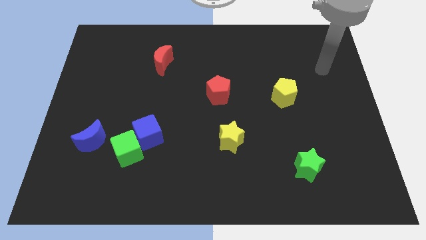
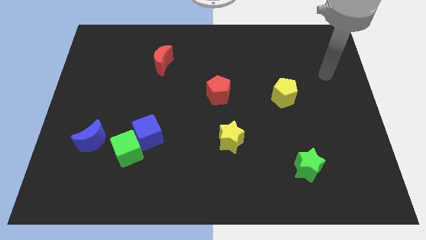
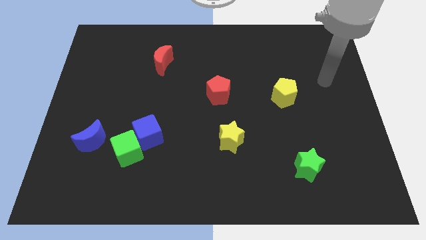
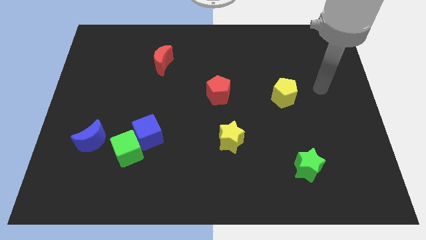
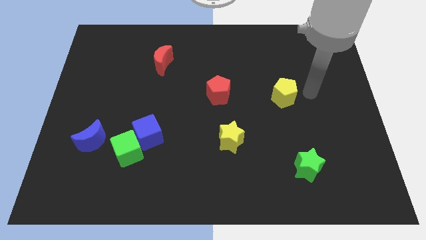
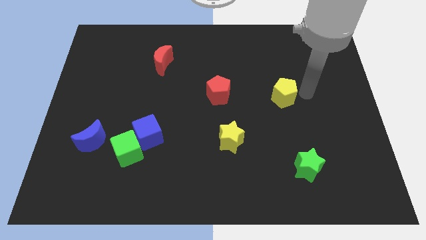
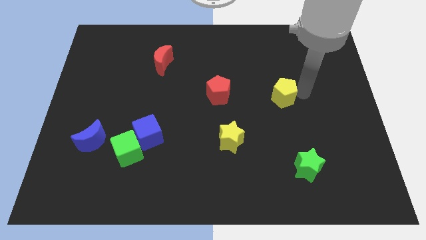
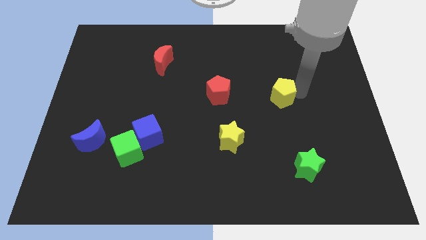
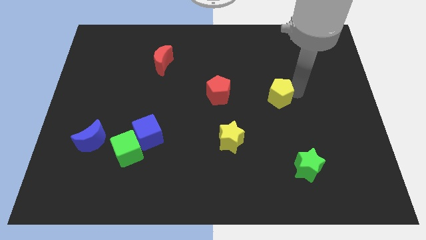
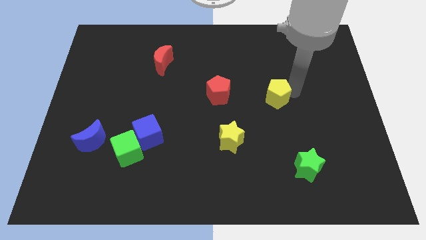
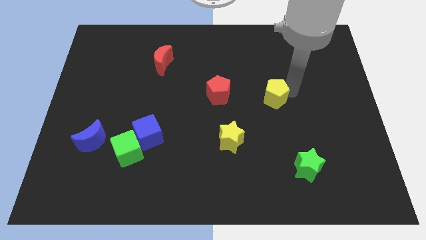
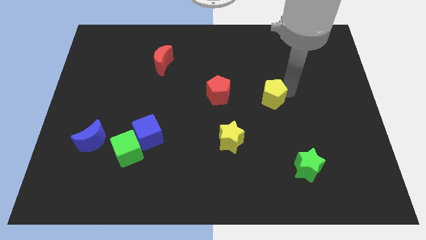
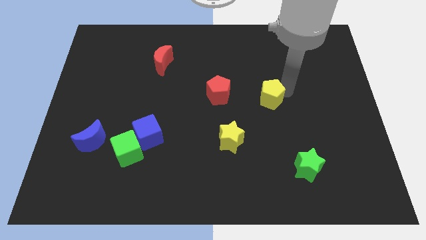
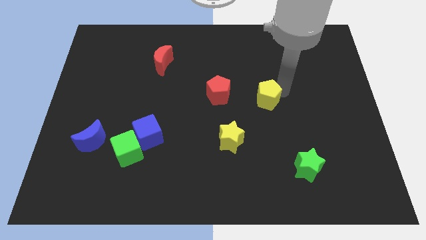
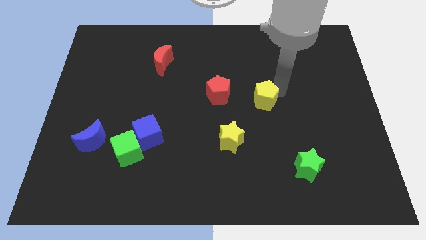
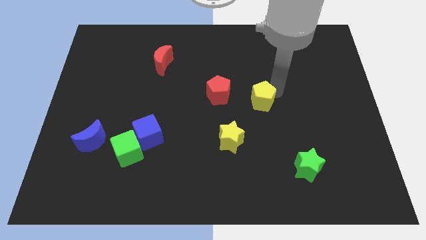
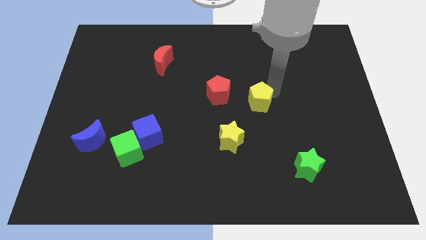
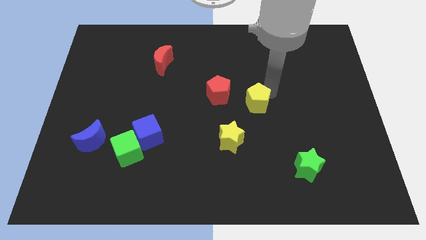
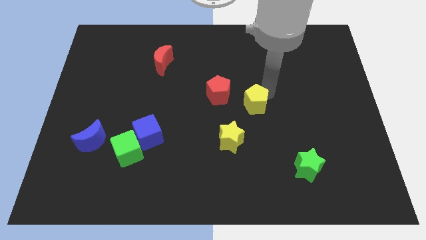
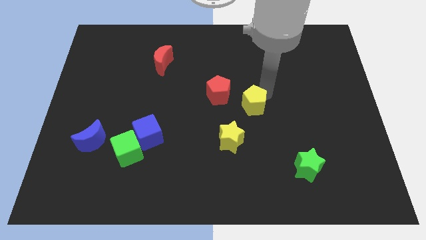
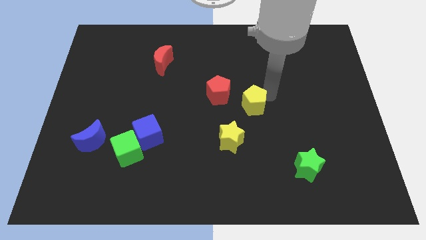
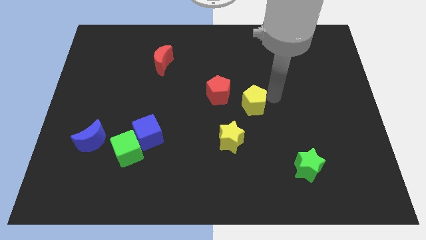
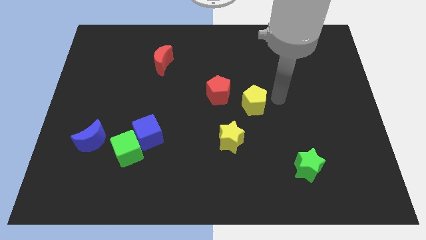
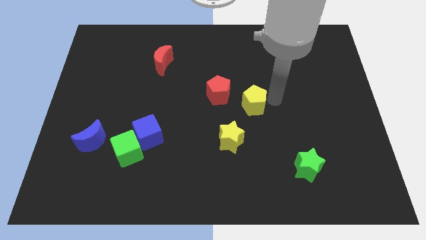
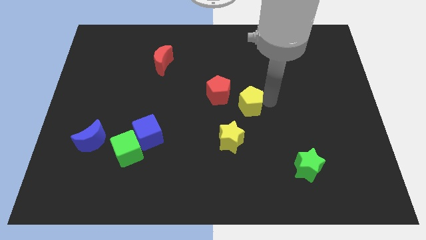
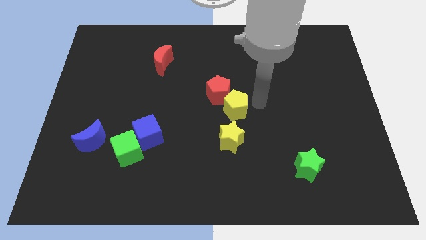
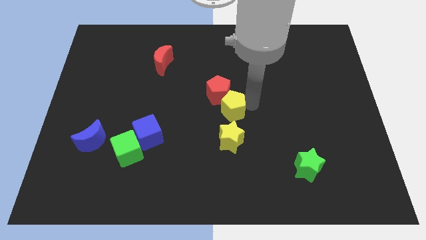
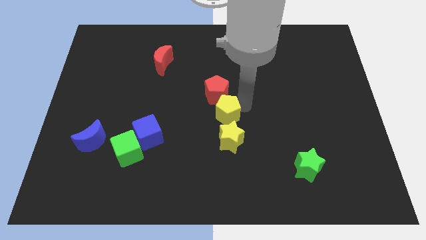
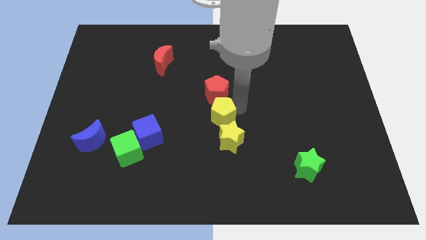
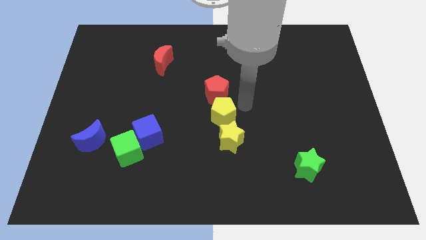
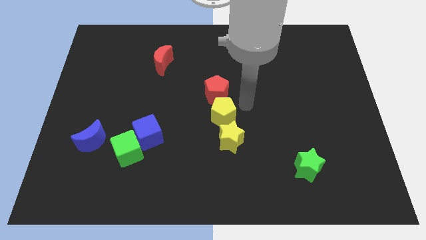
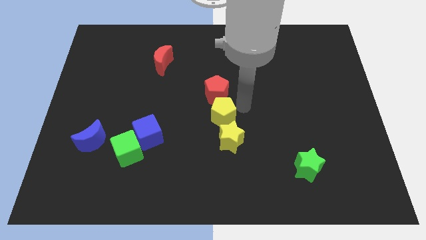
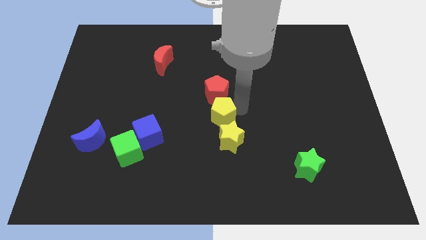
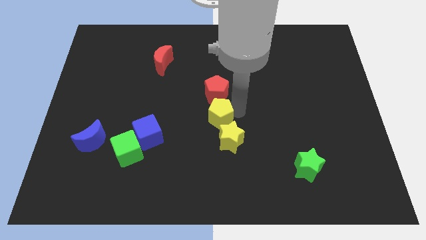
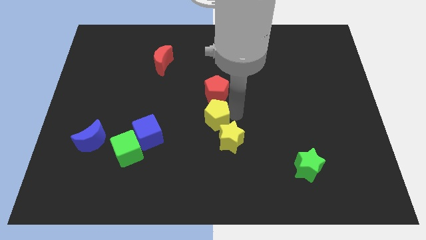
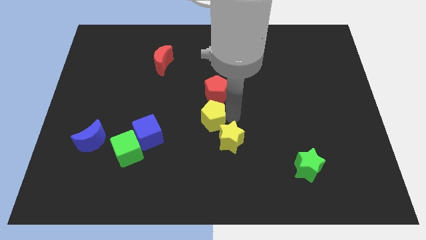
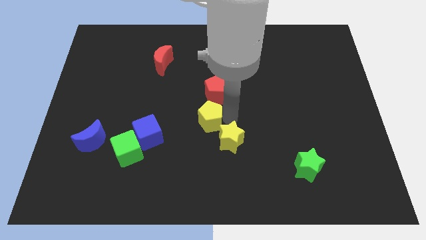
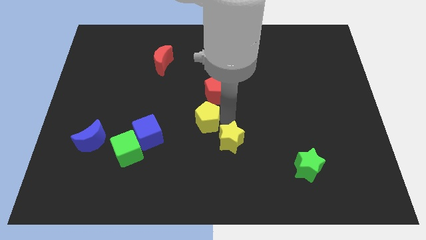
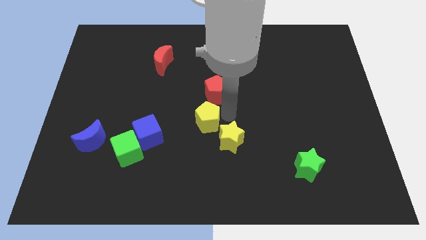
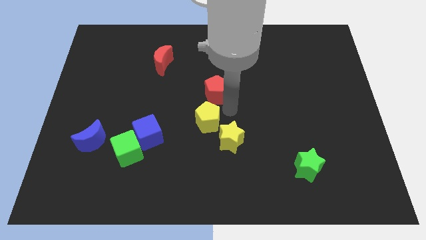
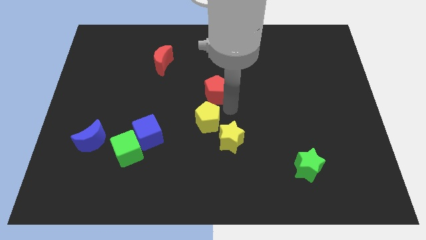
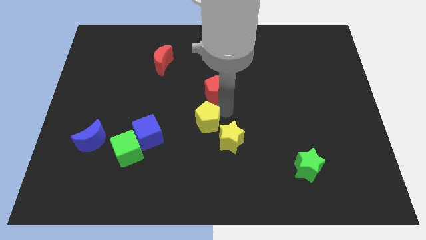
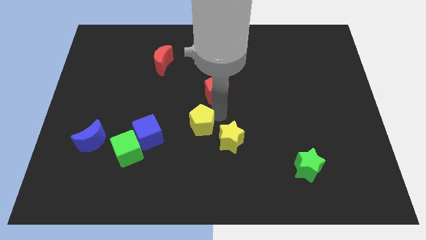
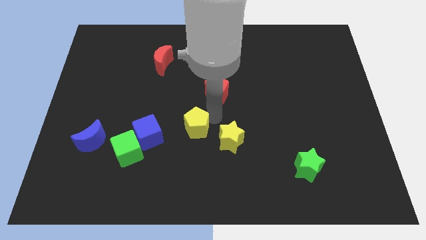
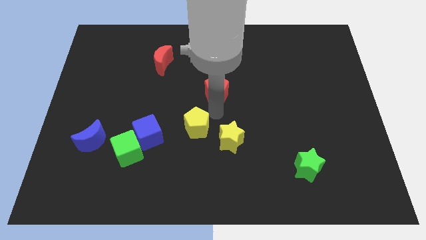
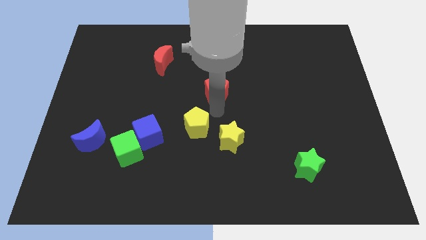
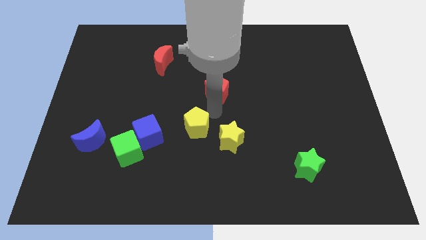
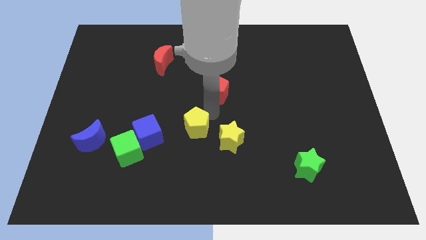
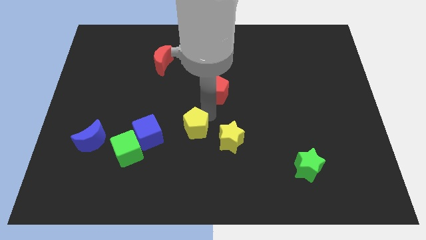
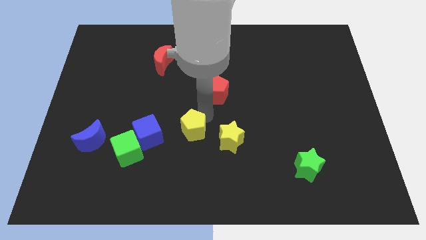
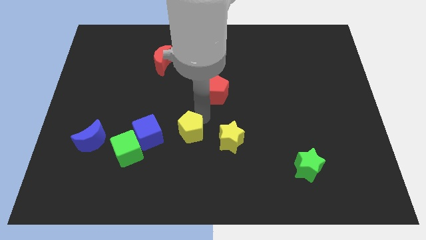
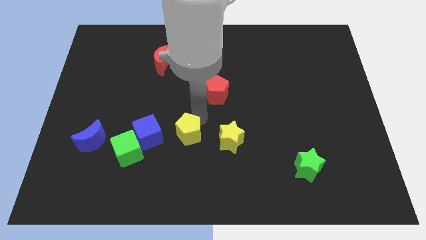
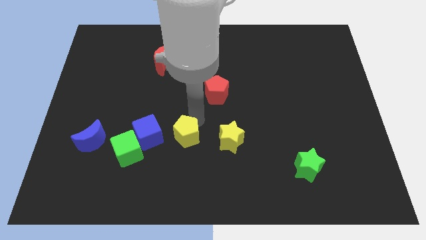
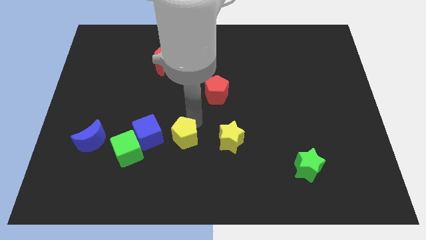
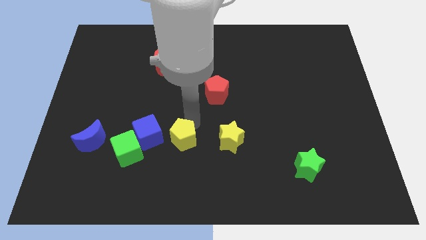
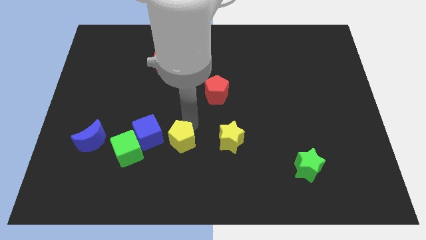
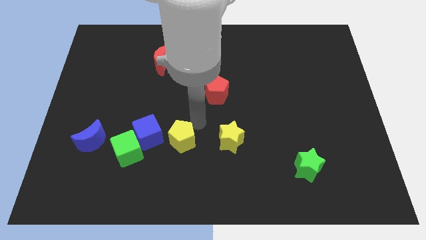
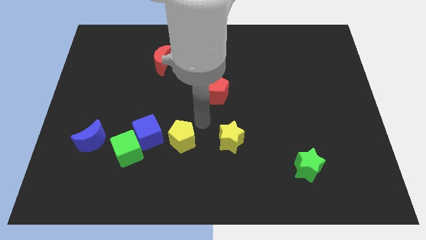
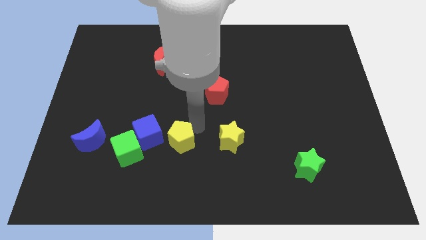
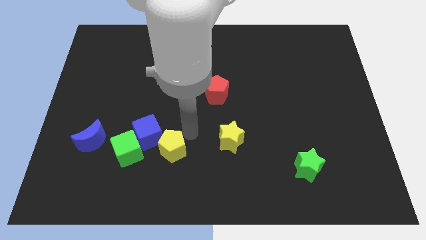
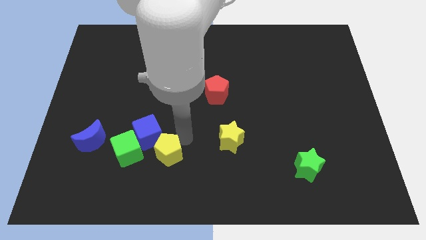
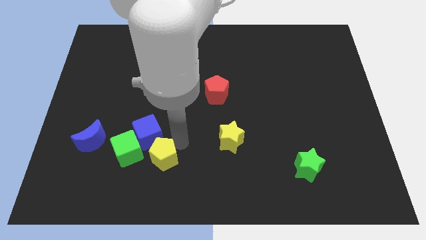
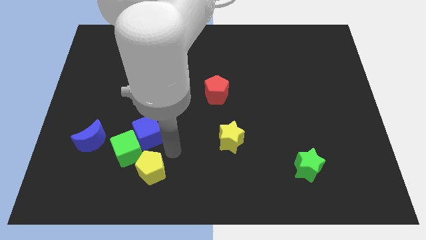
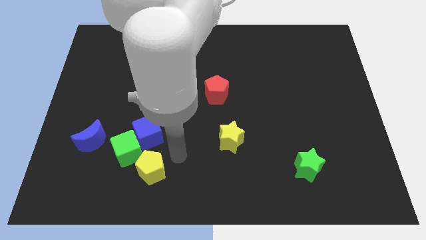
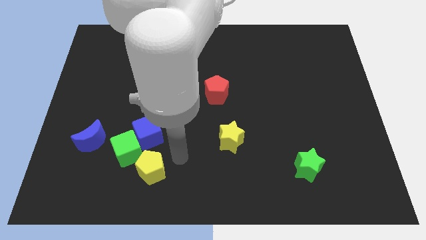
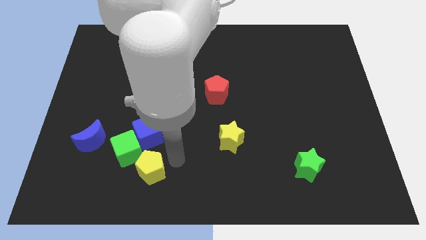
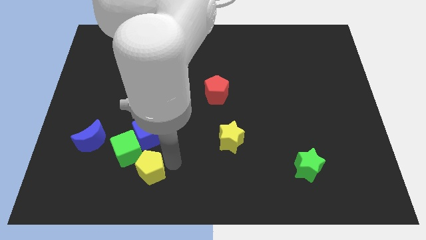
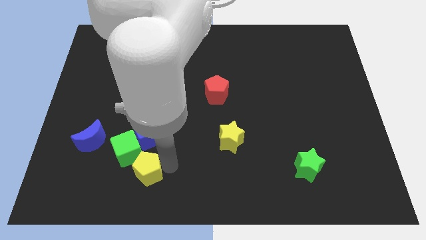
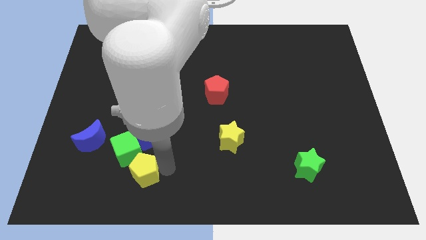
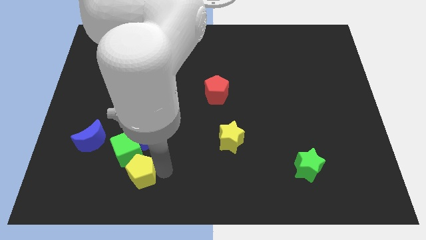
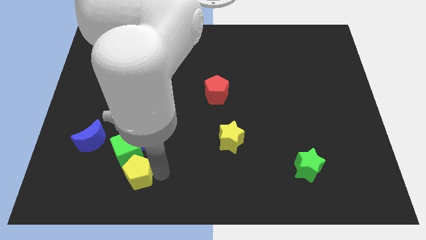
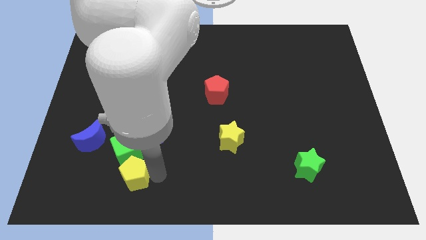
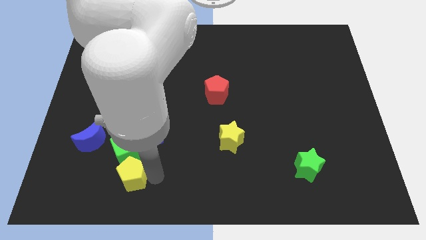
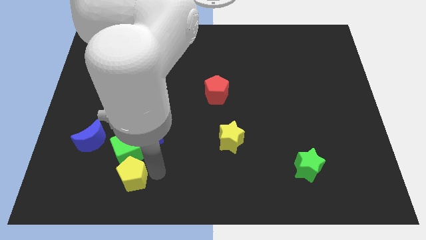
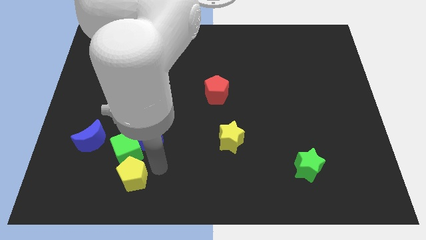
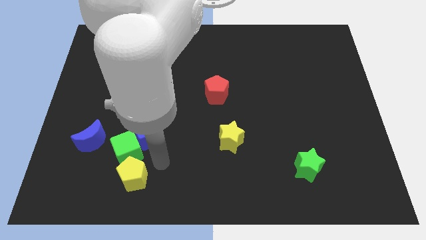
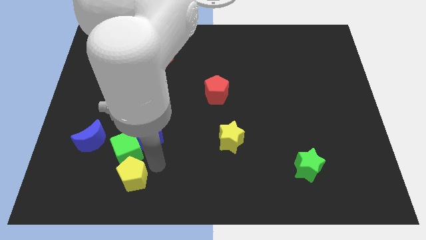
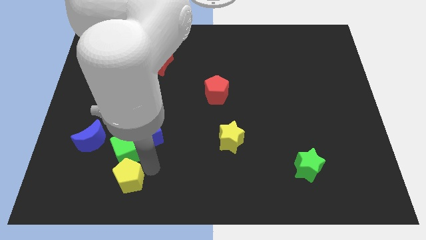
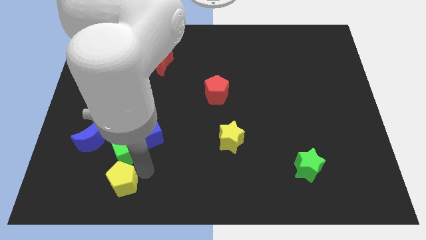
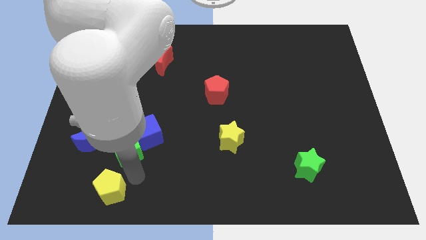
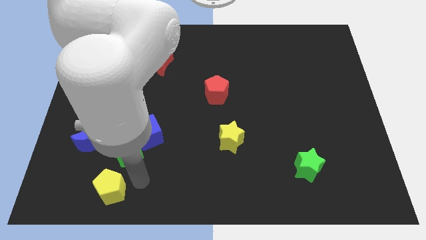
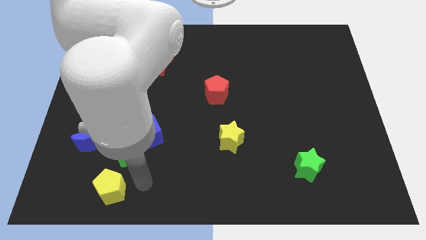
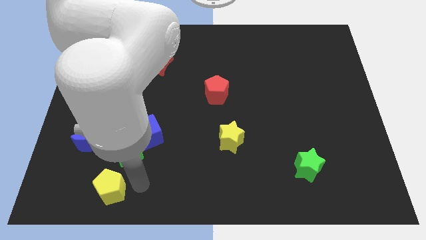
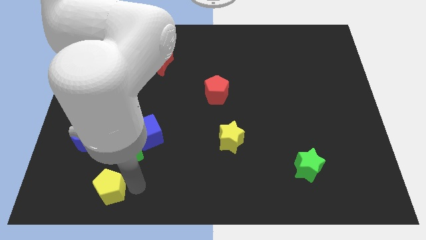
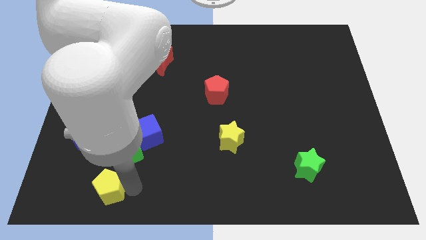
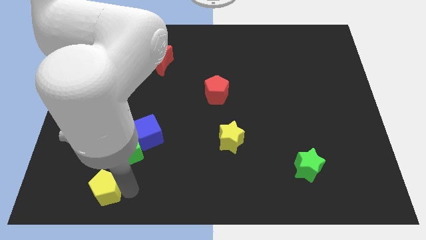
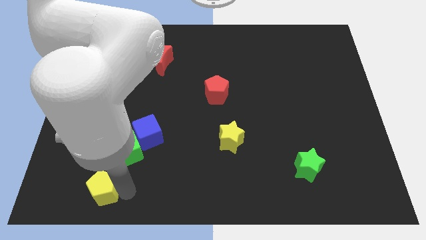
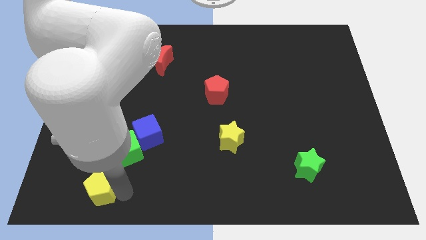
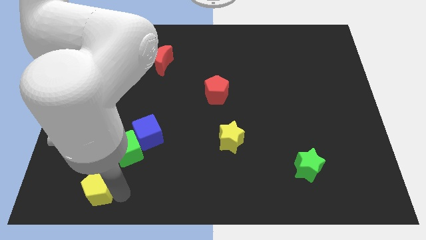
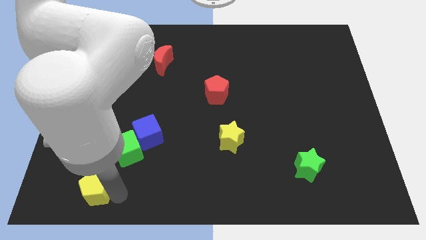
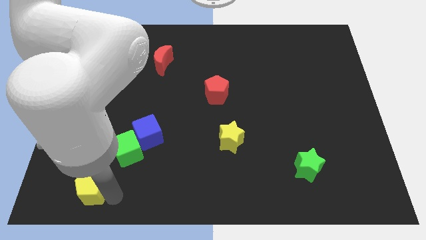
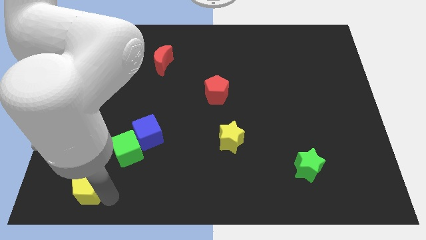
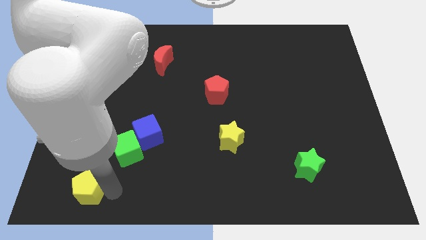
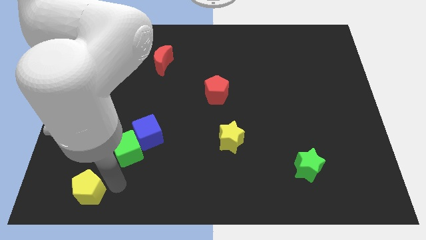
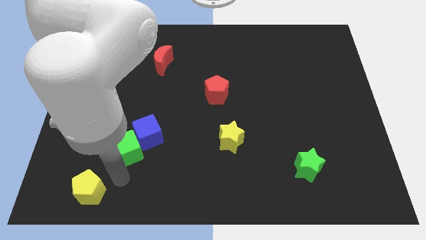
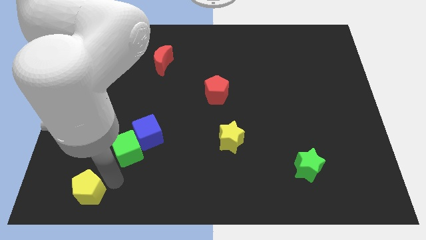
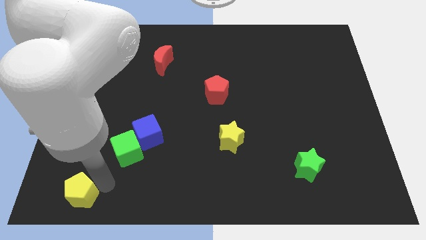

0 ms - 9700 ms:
put the yellow pentagon to the bottom left
